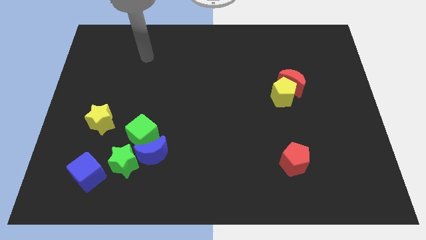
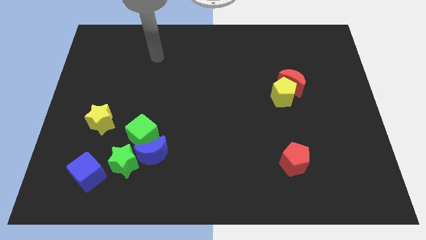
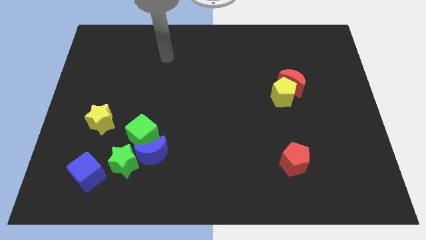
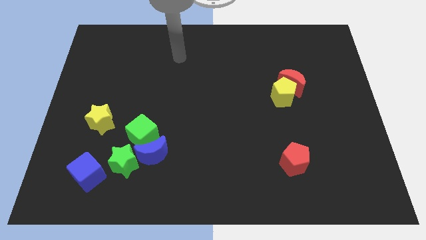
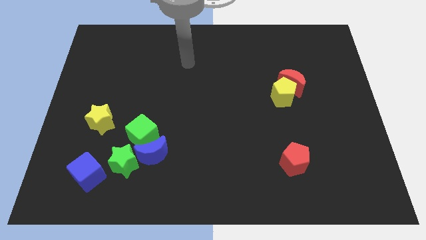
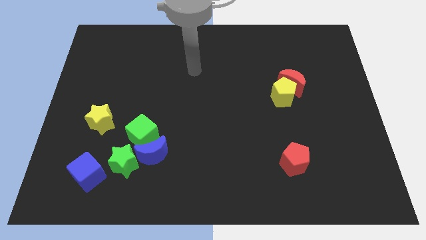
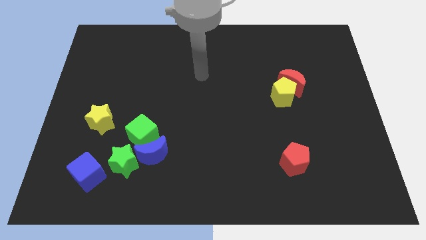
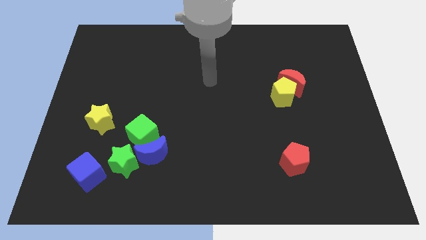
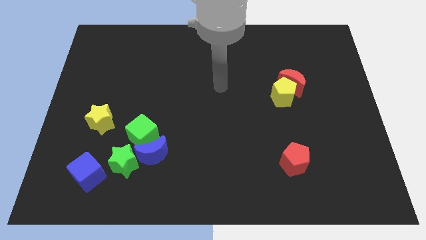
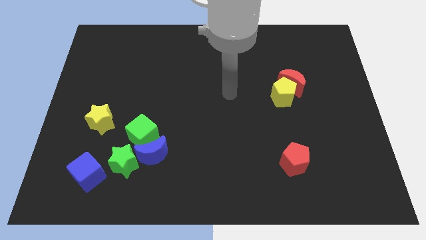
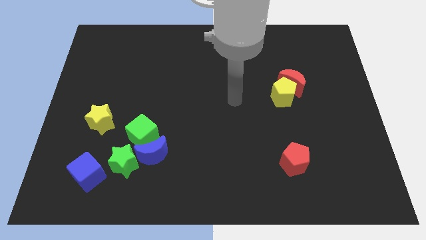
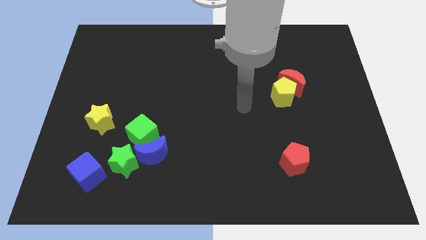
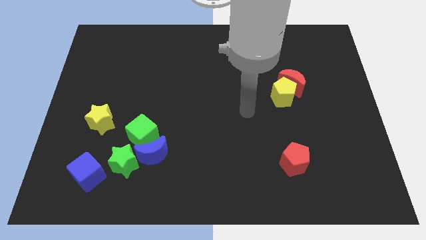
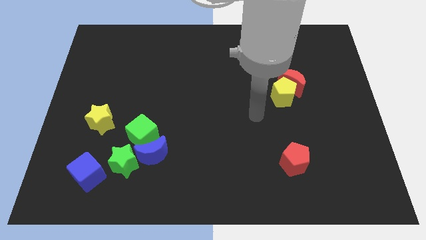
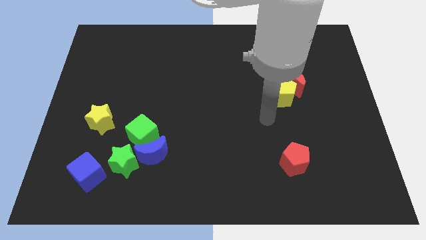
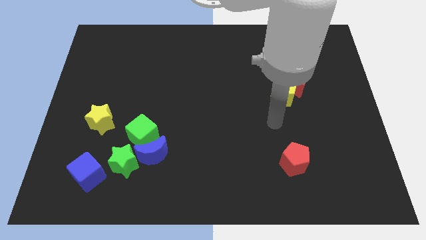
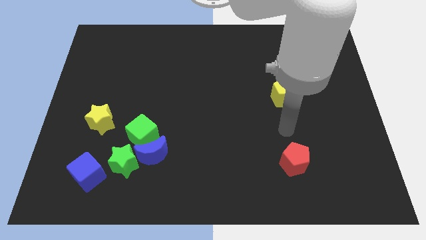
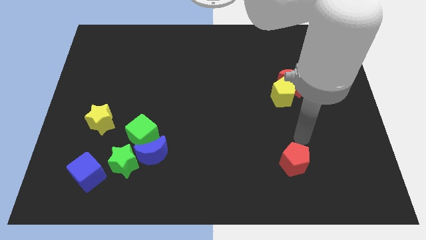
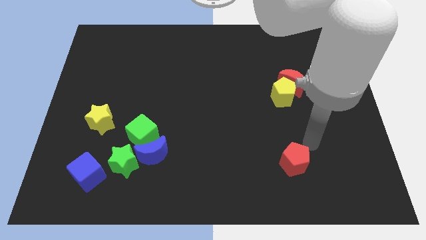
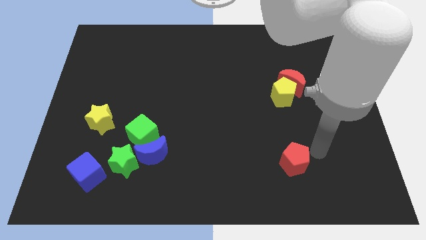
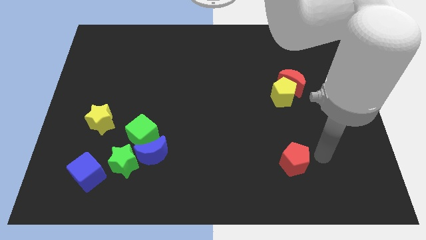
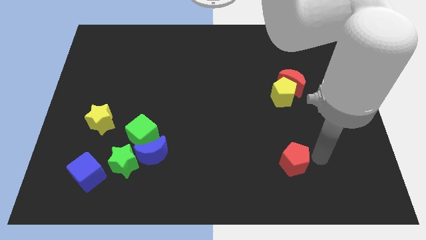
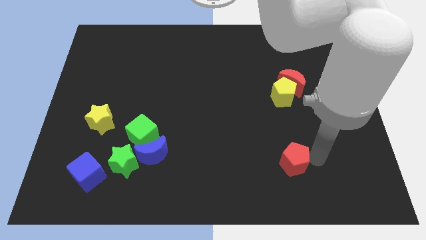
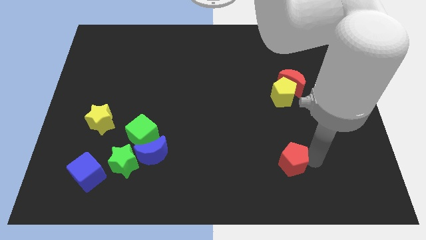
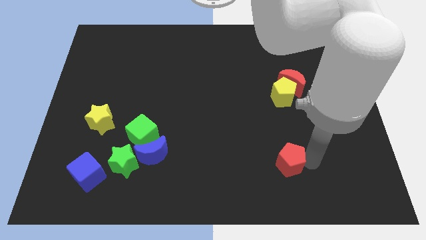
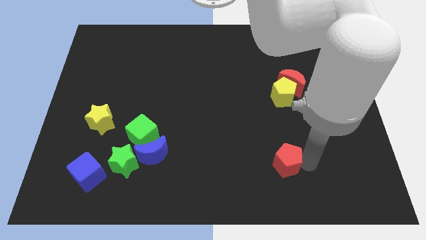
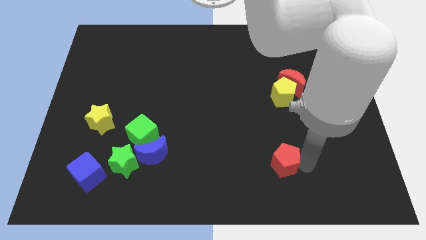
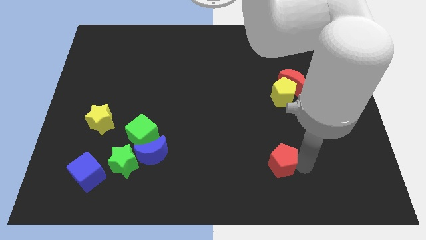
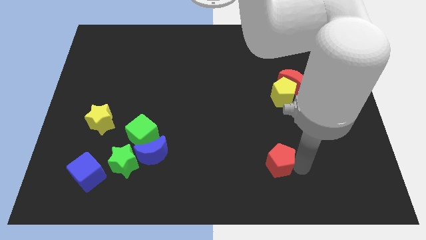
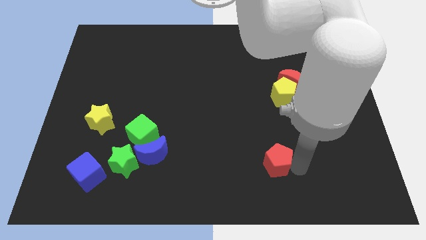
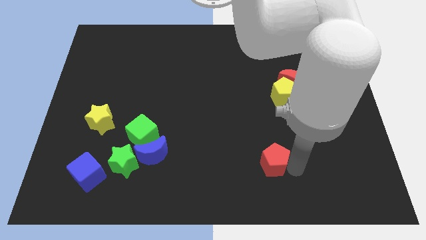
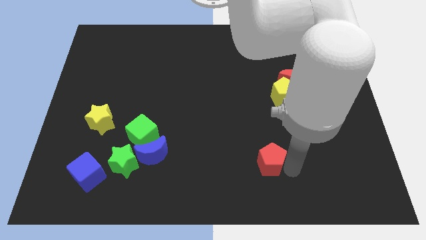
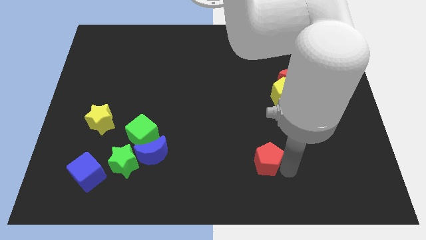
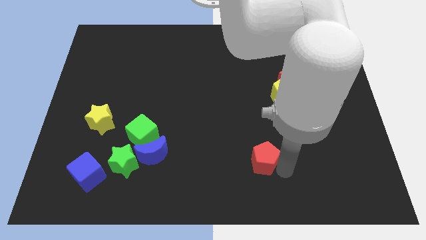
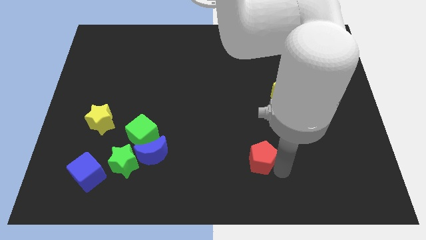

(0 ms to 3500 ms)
push the red pentagon to the left somewhat

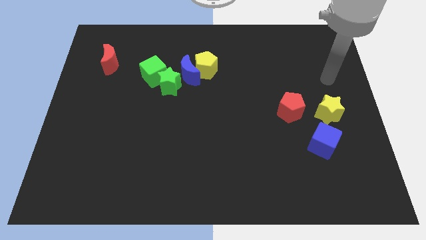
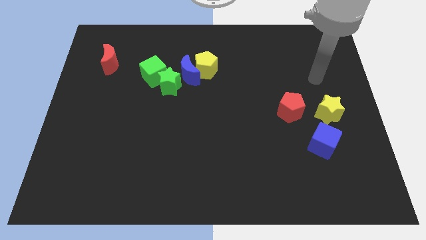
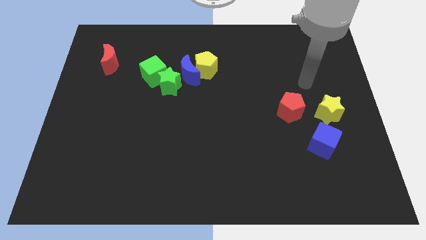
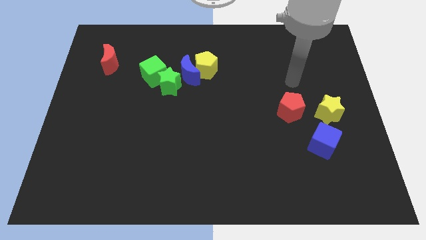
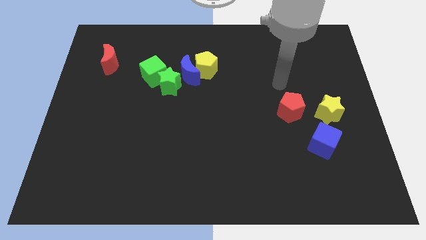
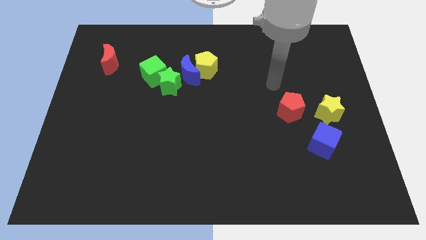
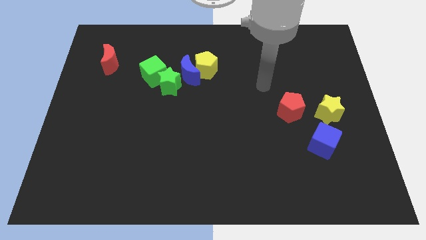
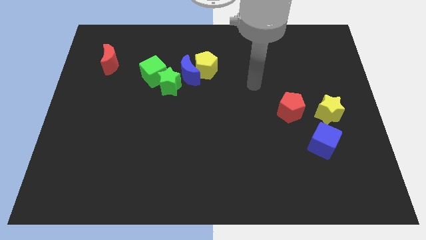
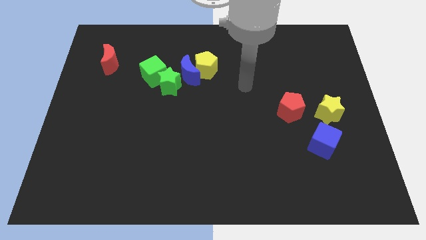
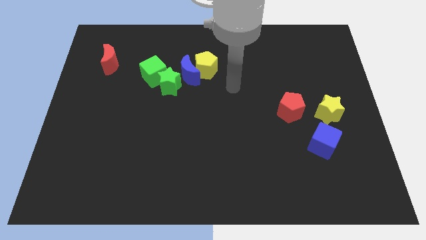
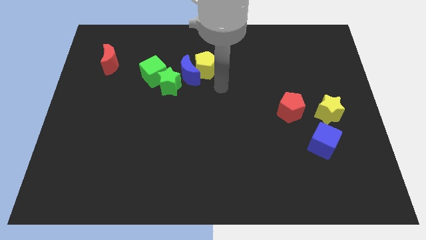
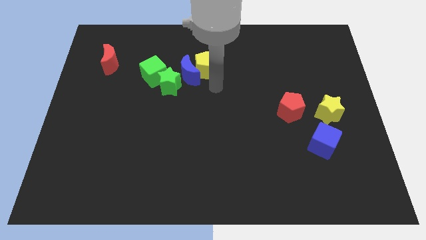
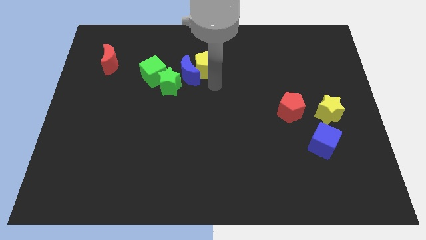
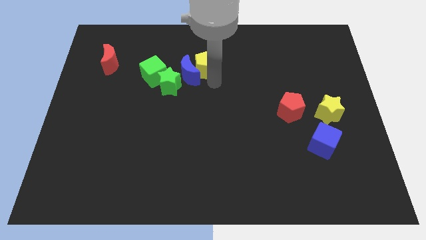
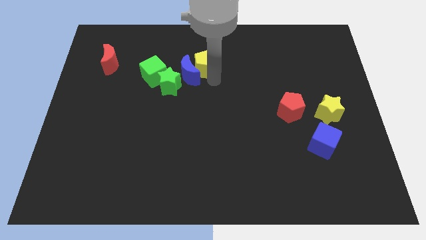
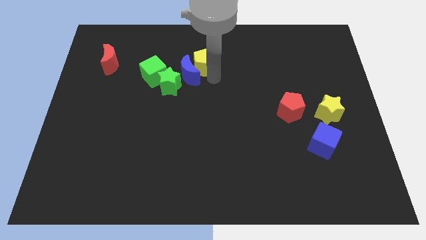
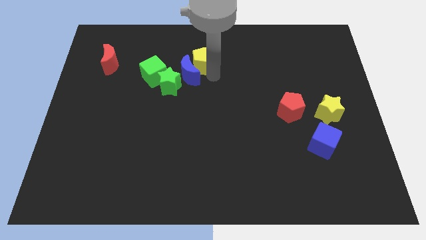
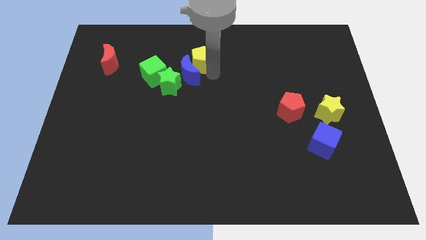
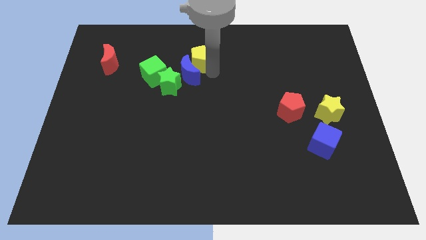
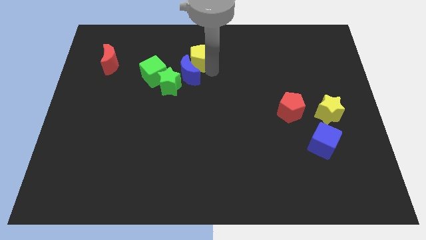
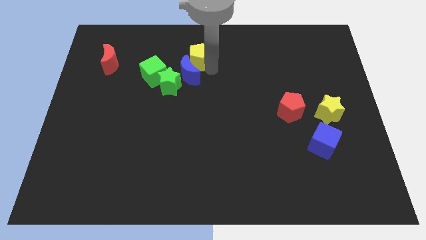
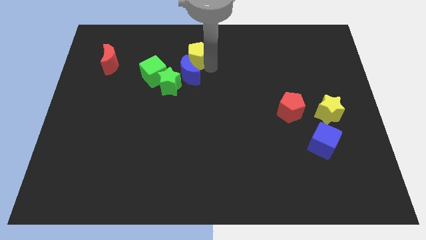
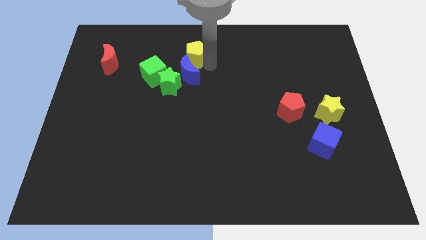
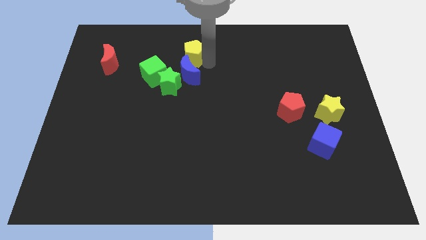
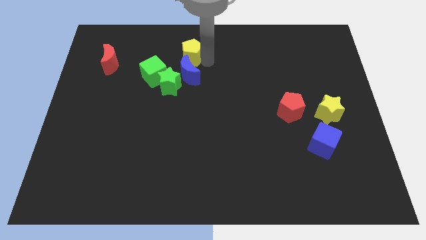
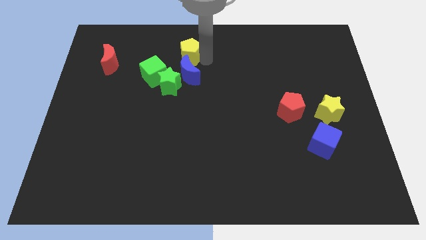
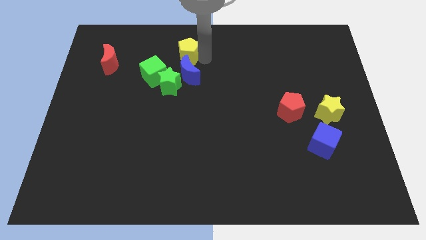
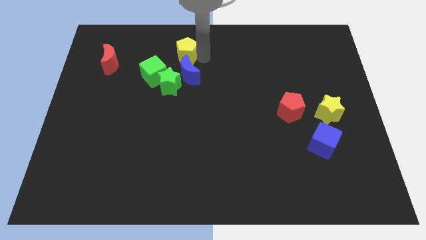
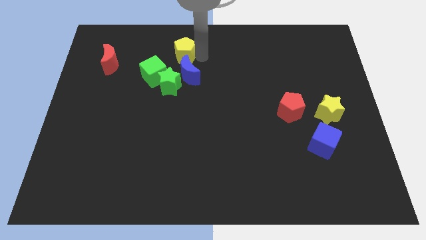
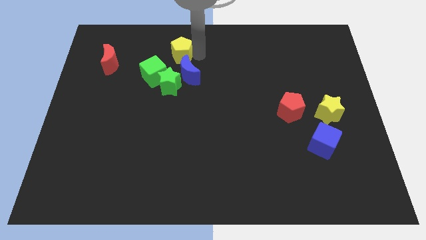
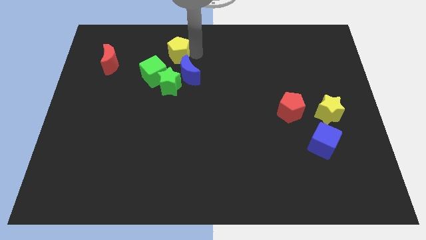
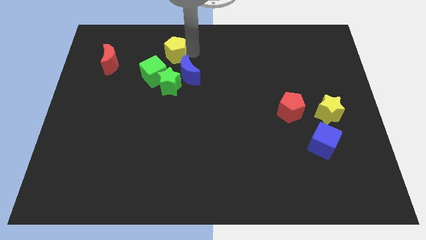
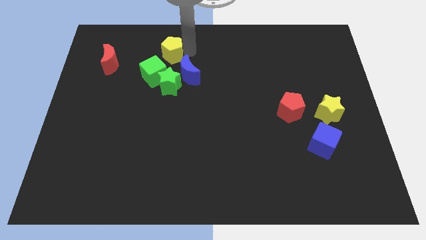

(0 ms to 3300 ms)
slightly push the yellow pentagon left

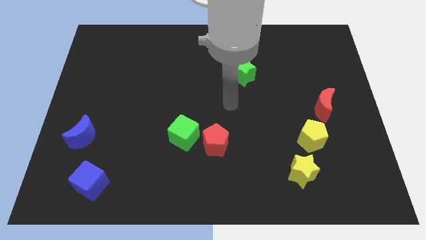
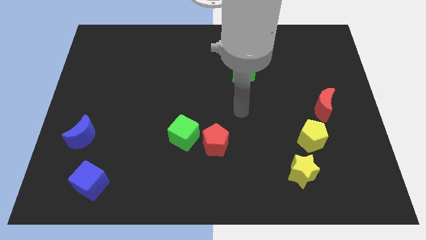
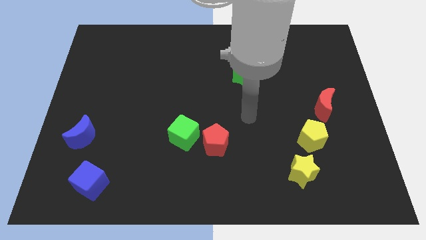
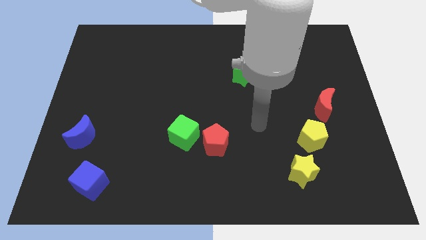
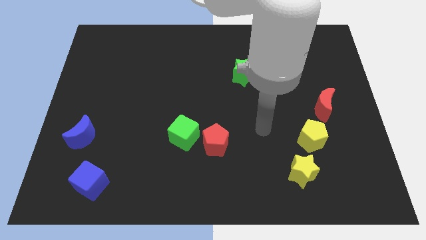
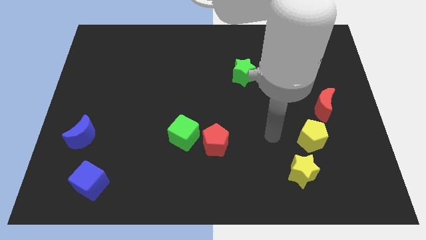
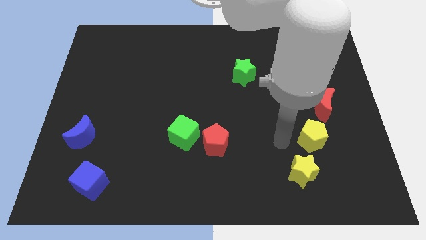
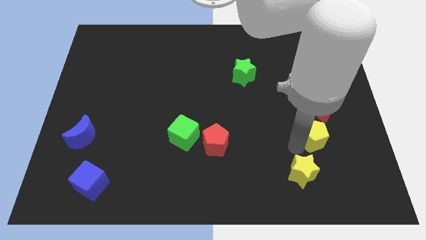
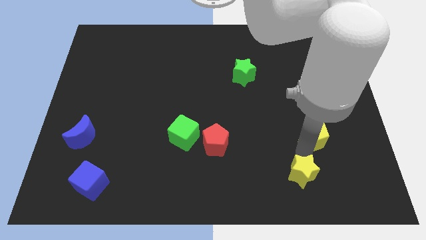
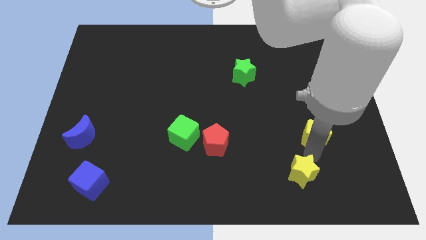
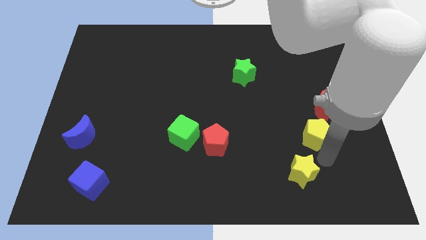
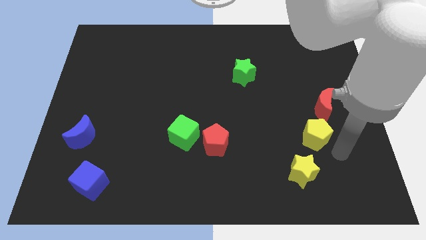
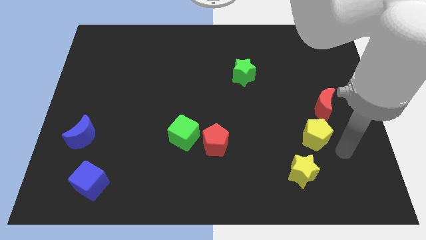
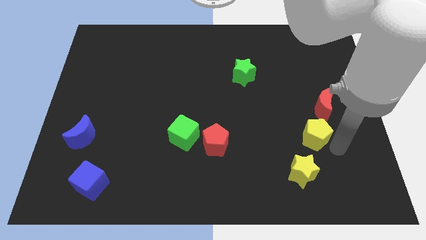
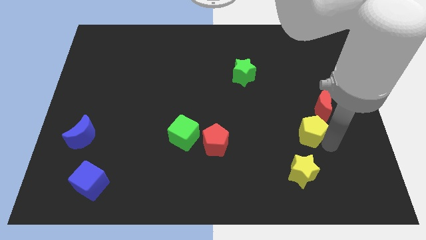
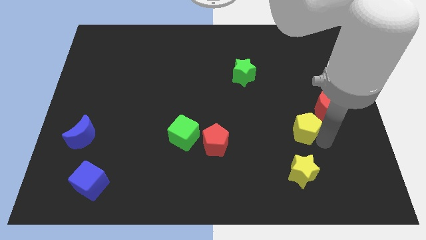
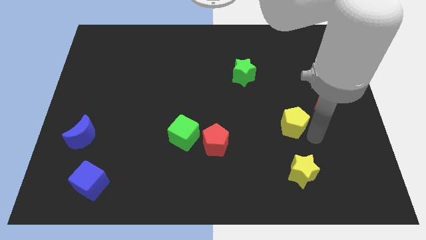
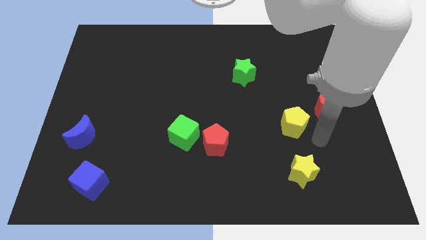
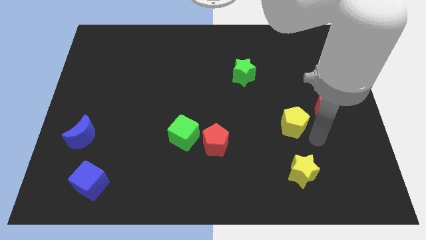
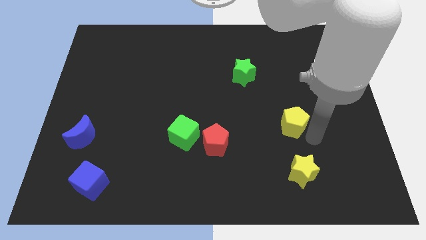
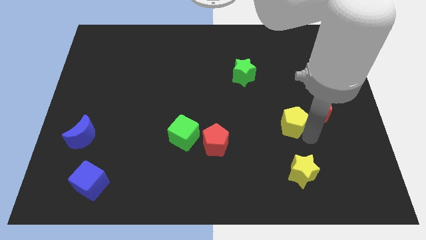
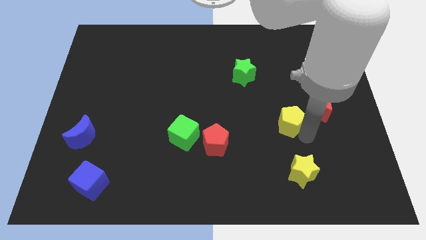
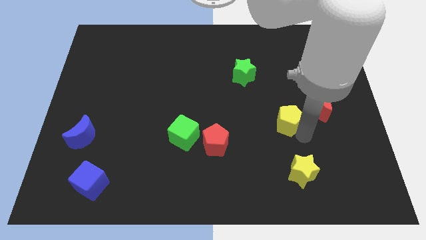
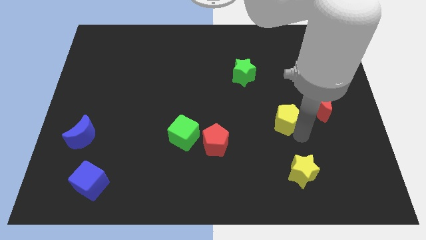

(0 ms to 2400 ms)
slightly move the yellow pentagon up and left
